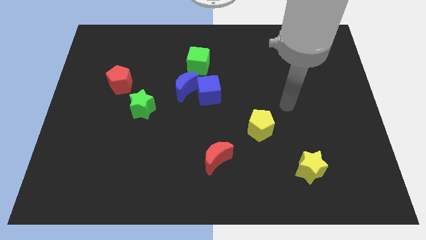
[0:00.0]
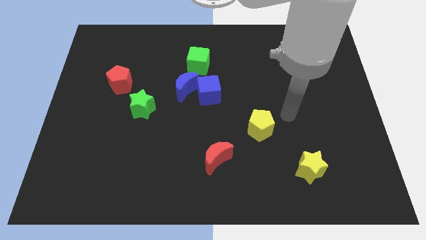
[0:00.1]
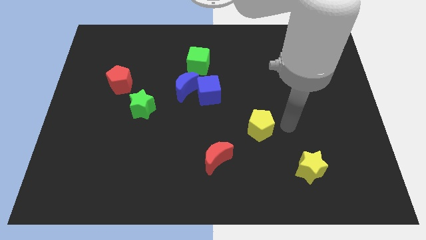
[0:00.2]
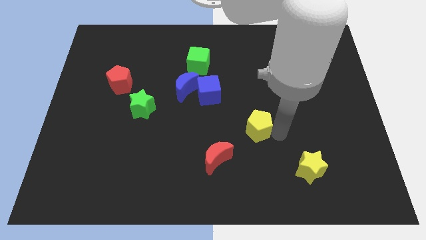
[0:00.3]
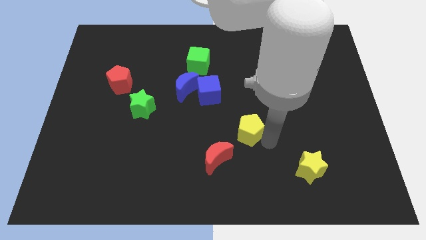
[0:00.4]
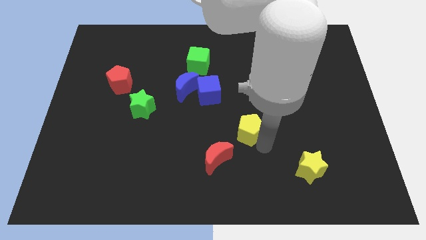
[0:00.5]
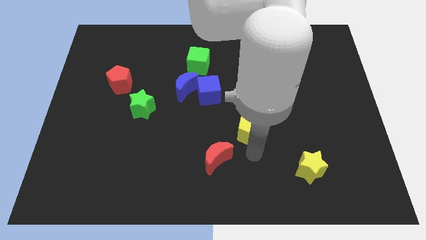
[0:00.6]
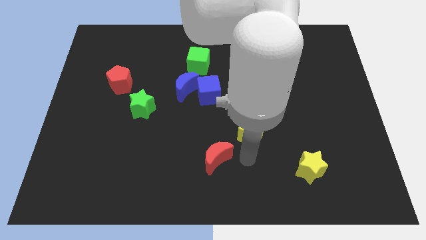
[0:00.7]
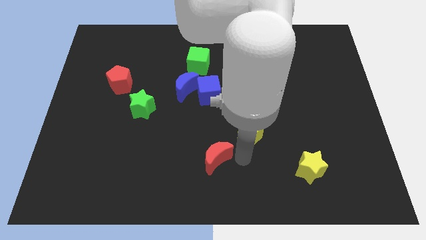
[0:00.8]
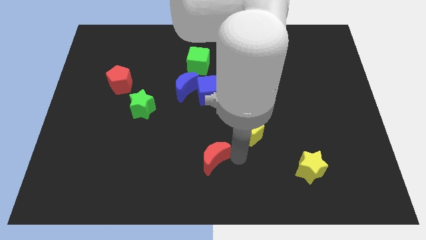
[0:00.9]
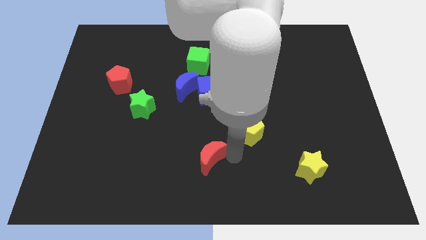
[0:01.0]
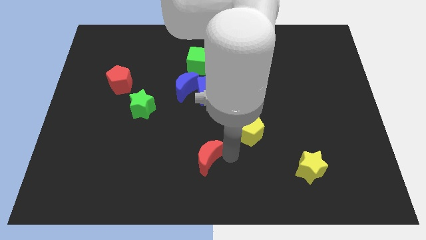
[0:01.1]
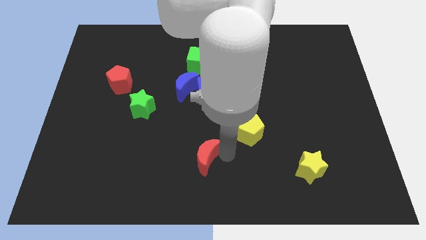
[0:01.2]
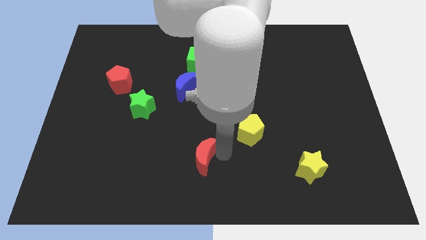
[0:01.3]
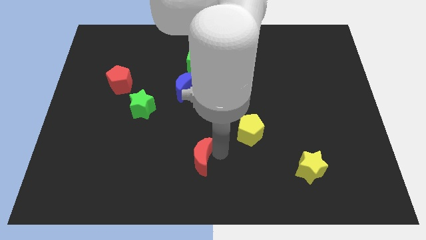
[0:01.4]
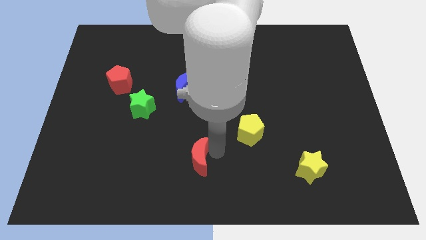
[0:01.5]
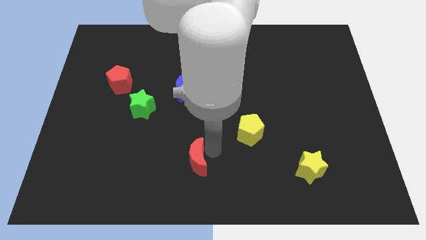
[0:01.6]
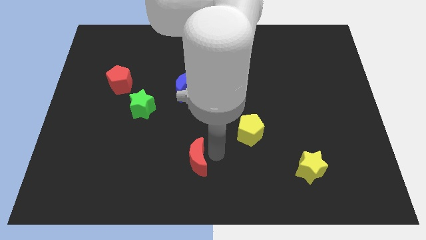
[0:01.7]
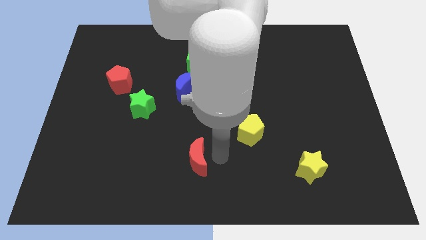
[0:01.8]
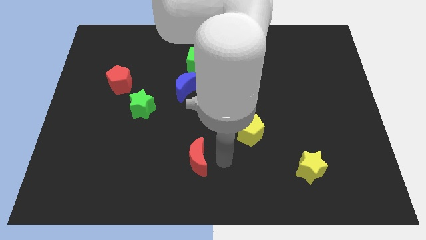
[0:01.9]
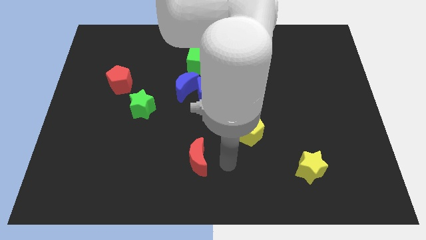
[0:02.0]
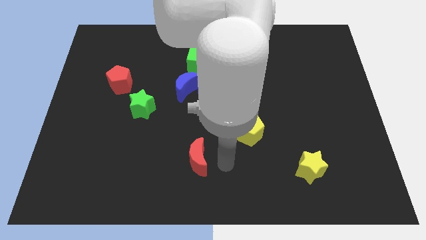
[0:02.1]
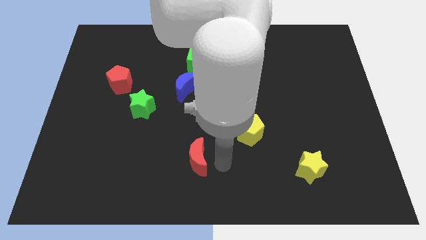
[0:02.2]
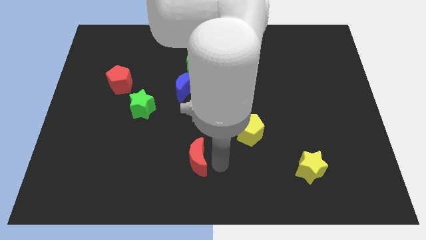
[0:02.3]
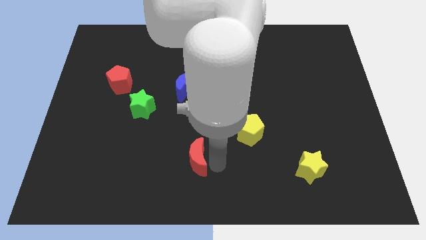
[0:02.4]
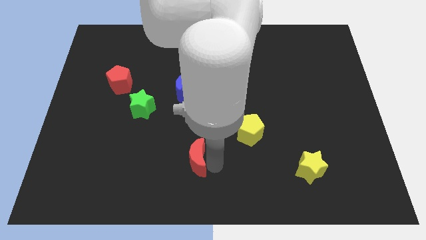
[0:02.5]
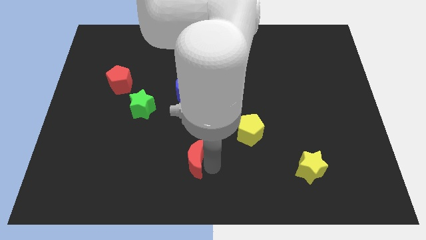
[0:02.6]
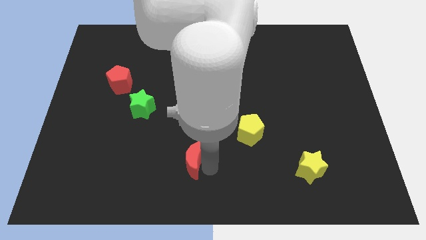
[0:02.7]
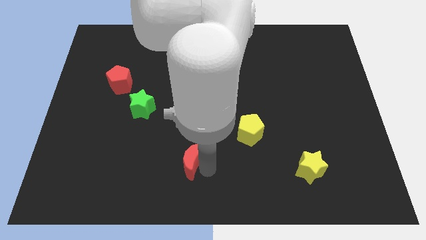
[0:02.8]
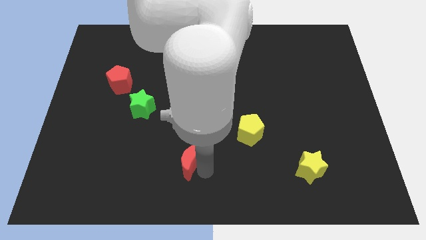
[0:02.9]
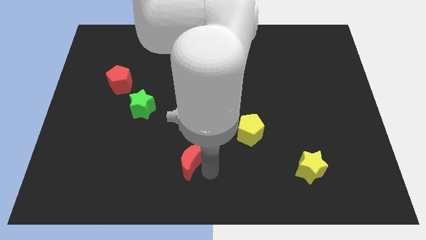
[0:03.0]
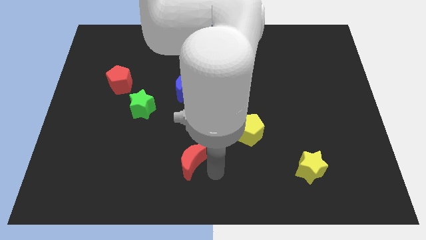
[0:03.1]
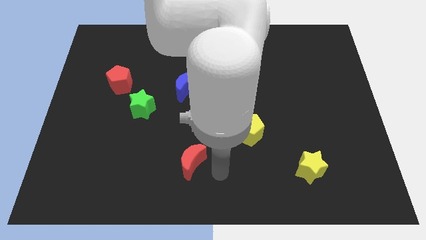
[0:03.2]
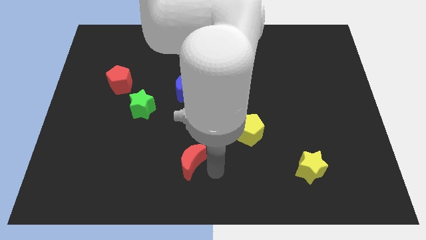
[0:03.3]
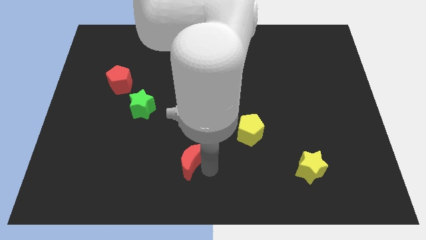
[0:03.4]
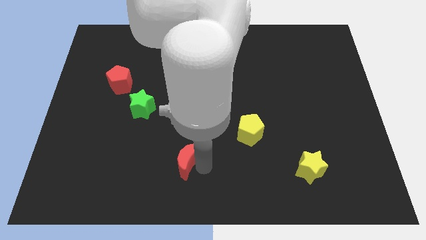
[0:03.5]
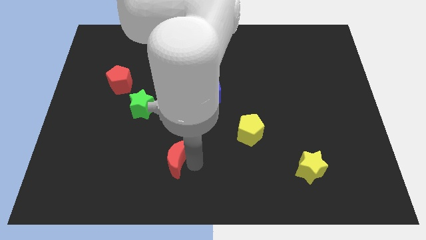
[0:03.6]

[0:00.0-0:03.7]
move the red moon to the left a bit

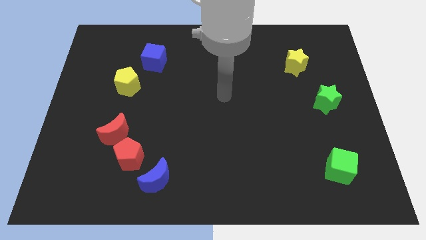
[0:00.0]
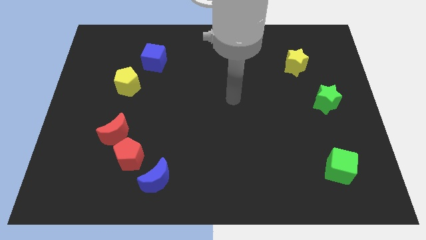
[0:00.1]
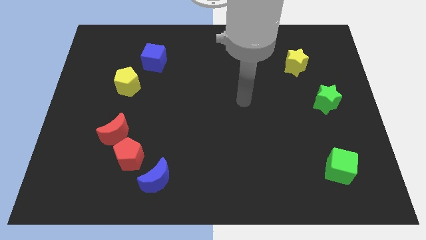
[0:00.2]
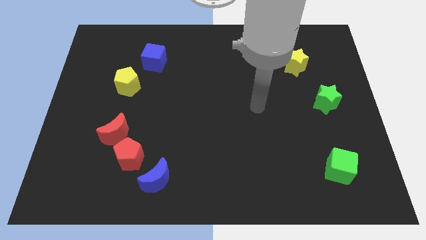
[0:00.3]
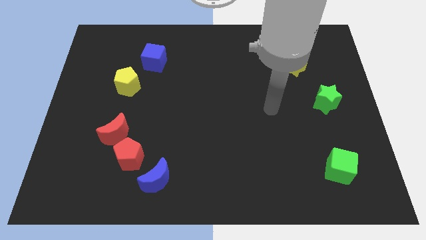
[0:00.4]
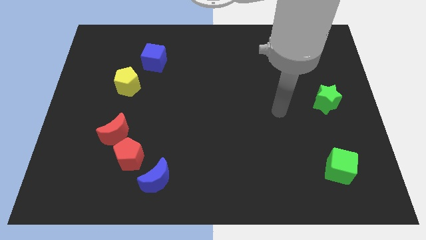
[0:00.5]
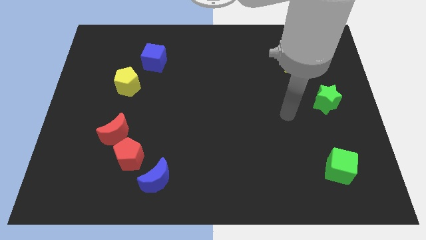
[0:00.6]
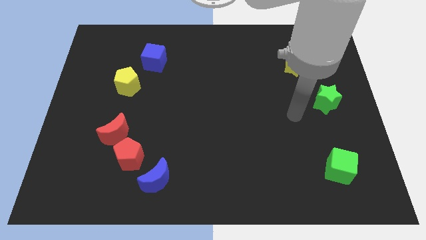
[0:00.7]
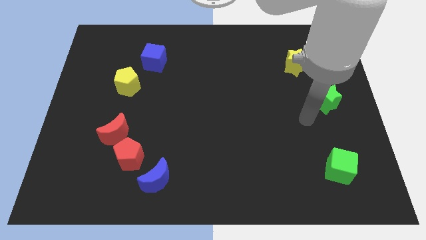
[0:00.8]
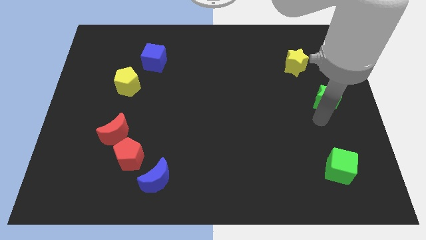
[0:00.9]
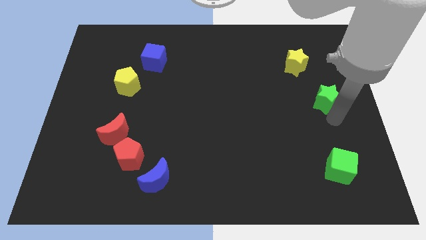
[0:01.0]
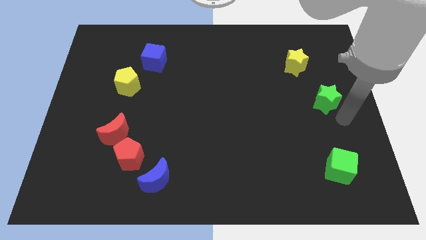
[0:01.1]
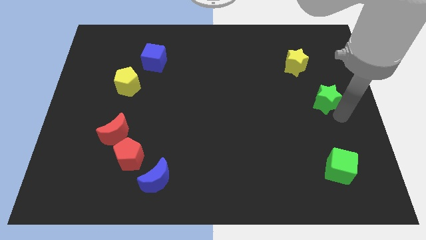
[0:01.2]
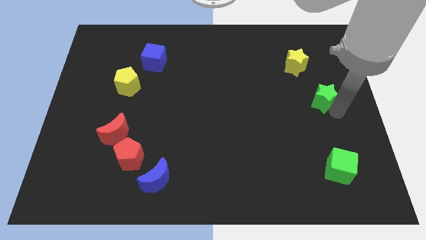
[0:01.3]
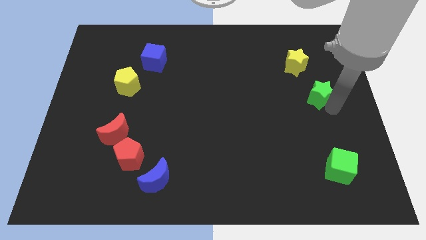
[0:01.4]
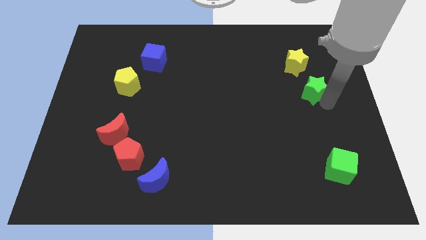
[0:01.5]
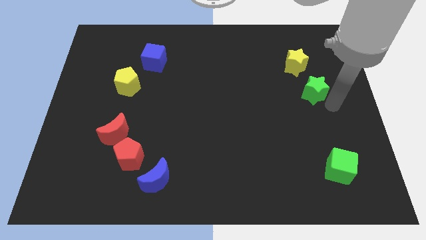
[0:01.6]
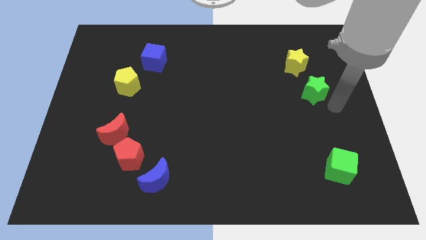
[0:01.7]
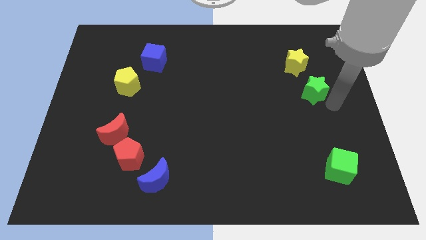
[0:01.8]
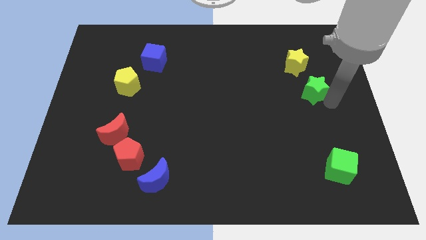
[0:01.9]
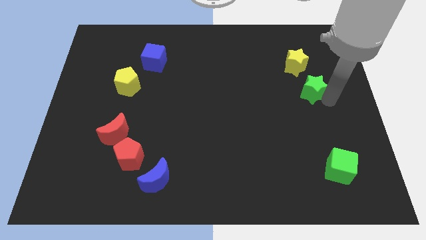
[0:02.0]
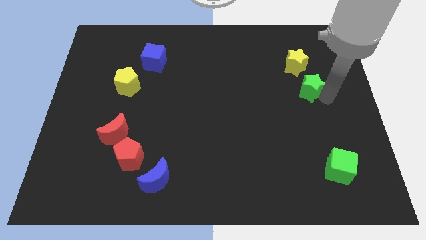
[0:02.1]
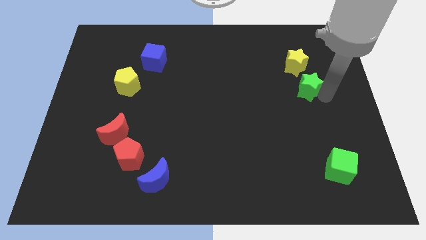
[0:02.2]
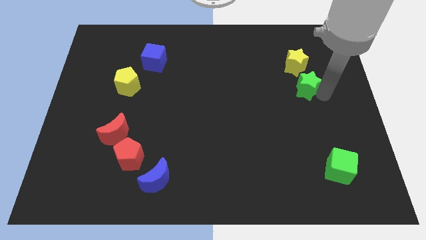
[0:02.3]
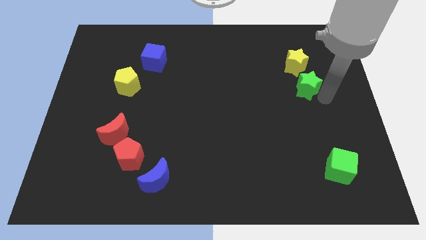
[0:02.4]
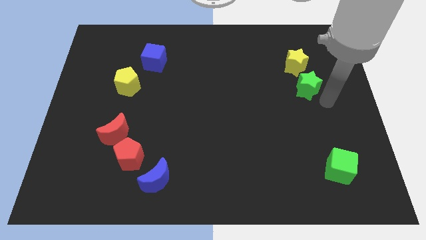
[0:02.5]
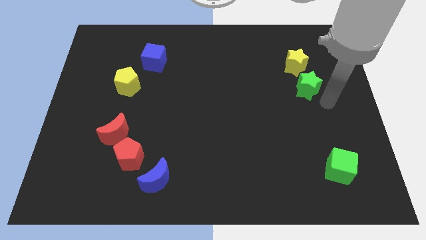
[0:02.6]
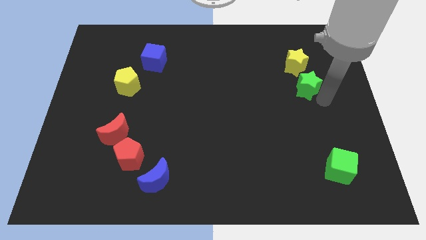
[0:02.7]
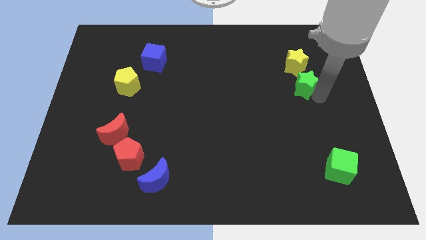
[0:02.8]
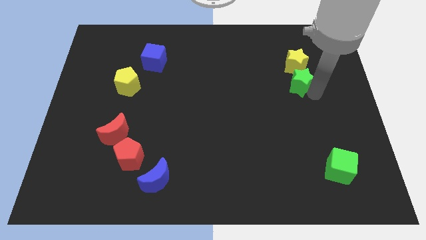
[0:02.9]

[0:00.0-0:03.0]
slightly slide the green star upwards and then left

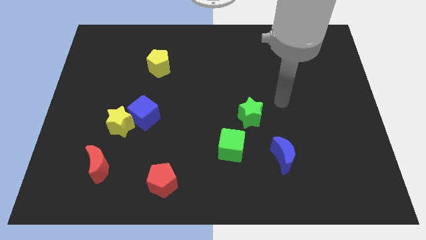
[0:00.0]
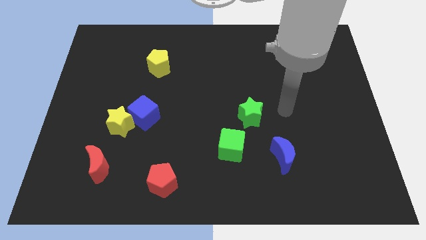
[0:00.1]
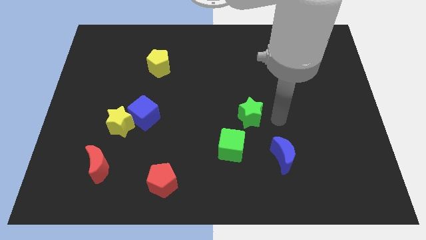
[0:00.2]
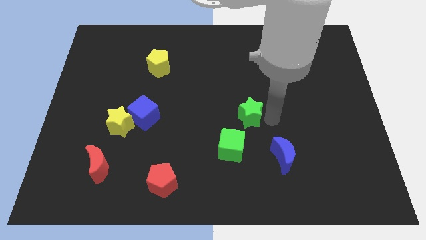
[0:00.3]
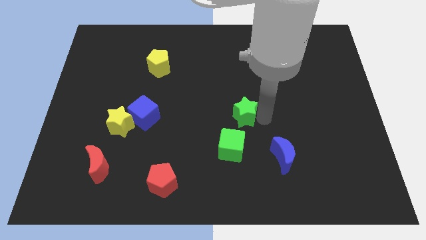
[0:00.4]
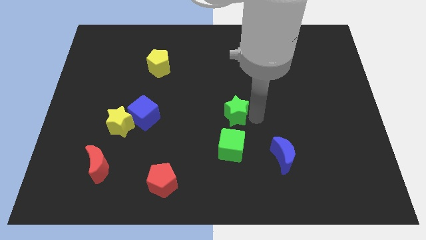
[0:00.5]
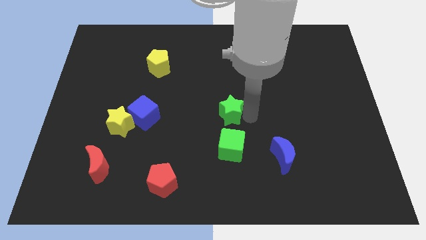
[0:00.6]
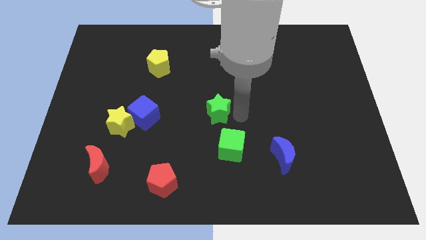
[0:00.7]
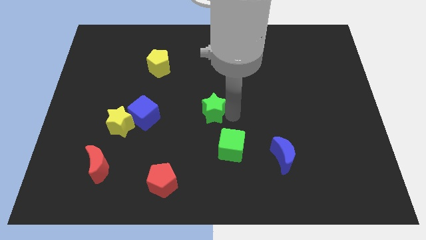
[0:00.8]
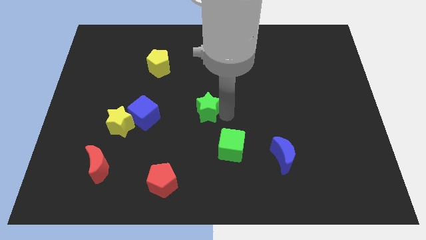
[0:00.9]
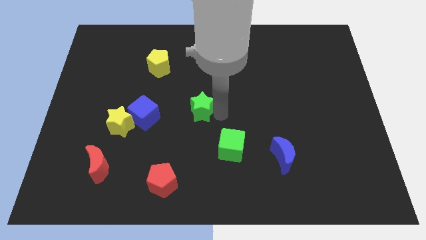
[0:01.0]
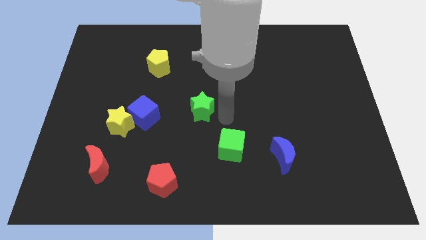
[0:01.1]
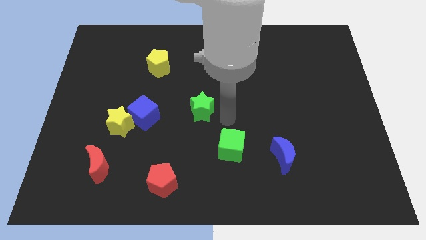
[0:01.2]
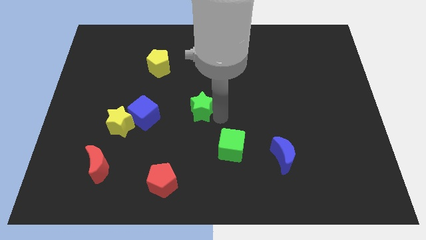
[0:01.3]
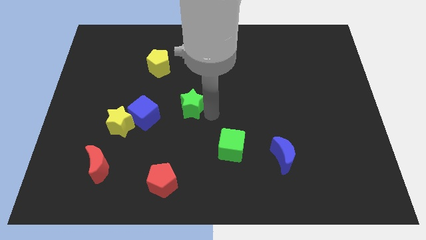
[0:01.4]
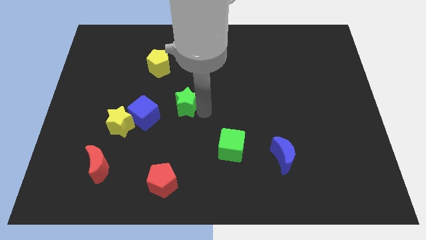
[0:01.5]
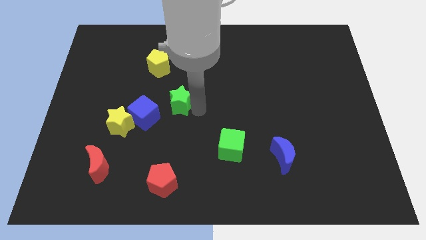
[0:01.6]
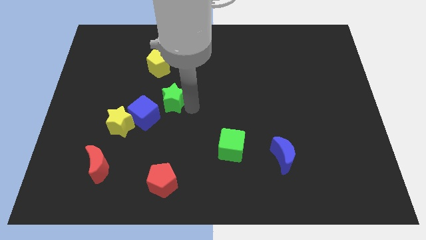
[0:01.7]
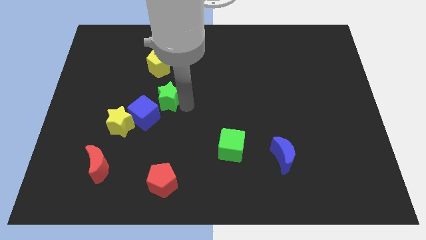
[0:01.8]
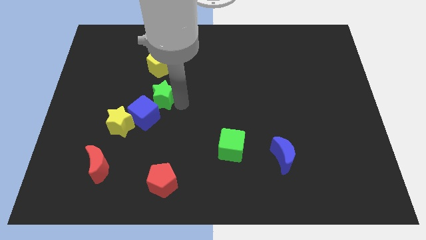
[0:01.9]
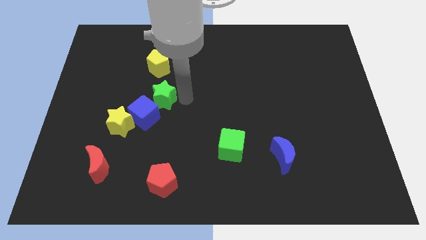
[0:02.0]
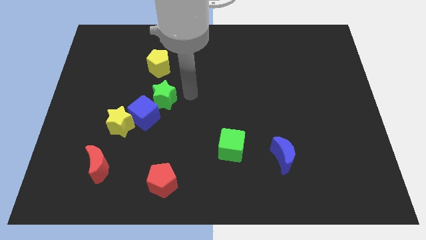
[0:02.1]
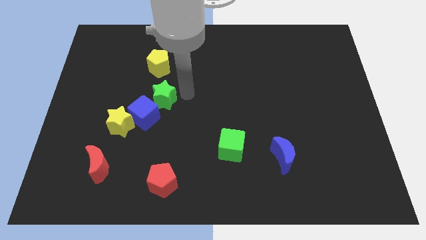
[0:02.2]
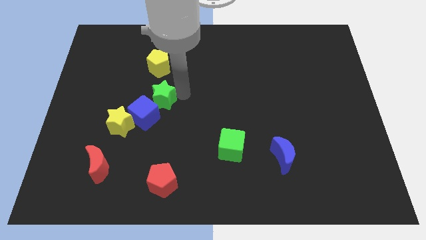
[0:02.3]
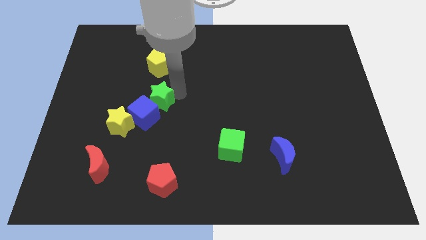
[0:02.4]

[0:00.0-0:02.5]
slide the green star left
